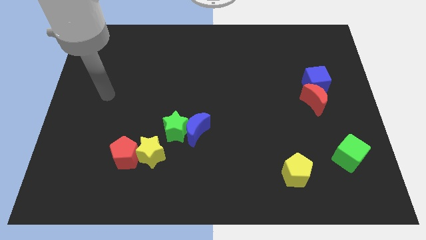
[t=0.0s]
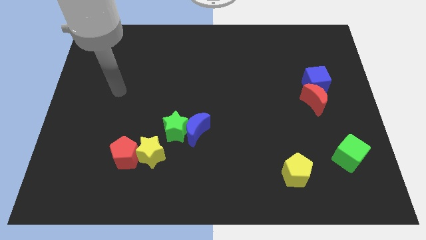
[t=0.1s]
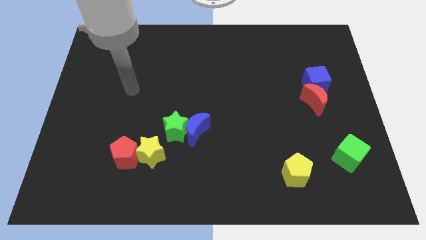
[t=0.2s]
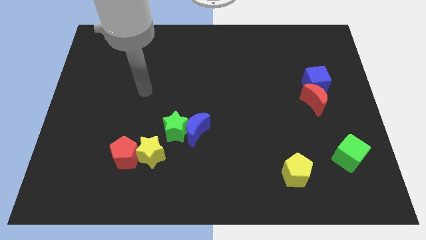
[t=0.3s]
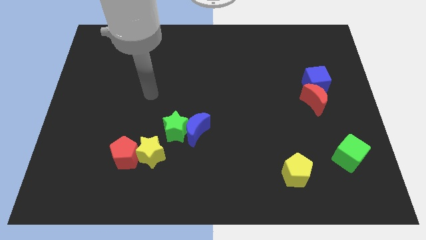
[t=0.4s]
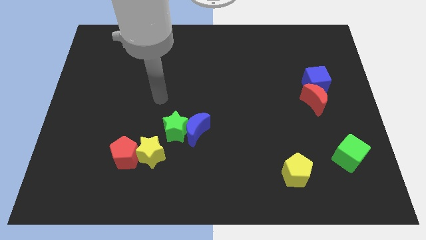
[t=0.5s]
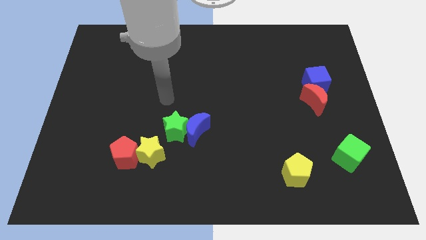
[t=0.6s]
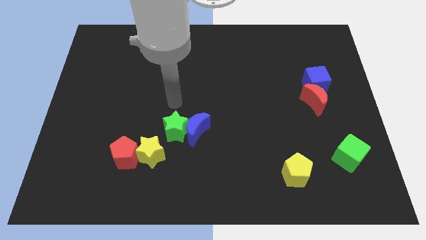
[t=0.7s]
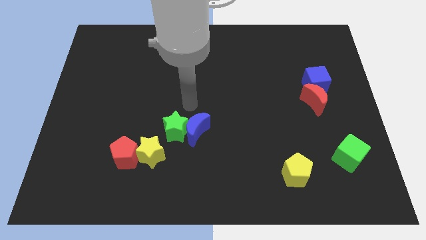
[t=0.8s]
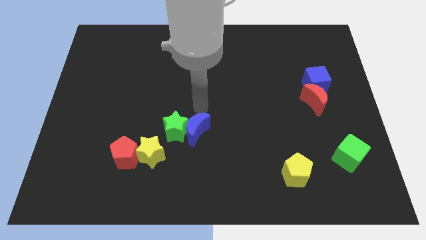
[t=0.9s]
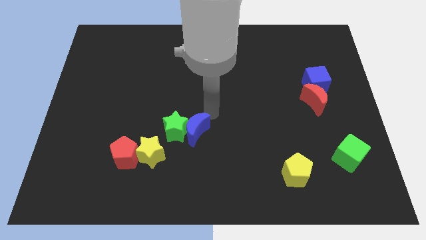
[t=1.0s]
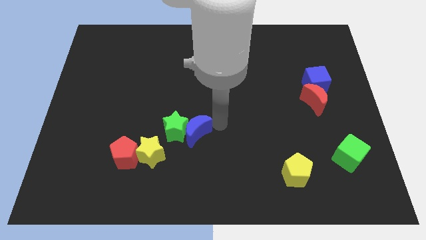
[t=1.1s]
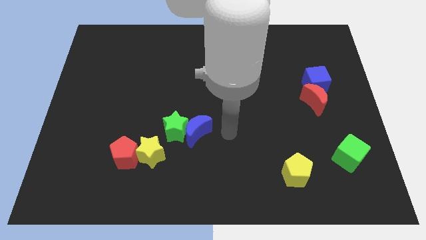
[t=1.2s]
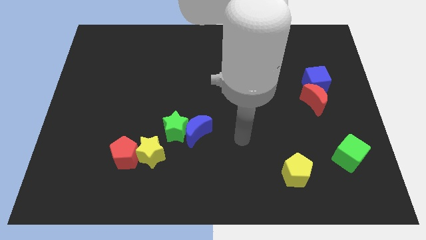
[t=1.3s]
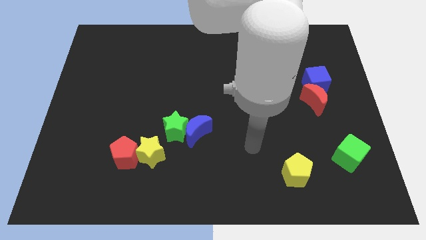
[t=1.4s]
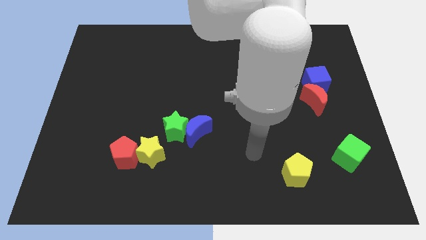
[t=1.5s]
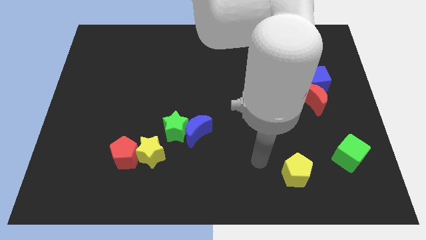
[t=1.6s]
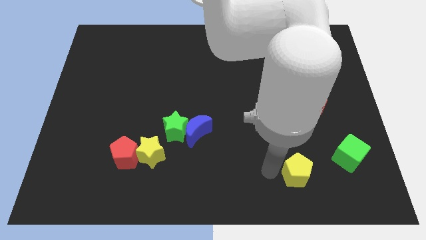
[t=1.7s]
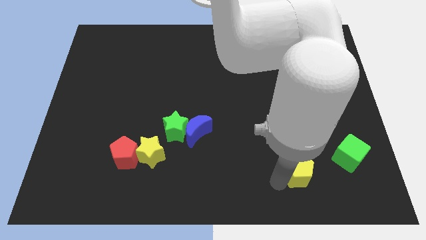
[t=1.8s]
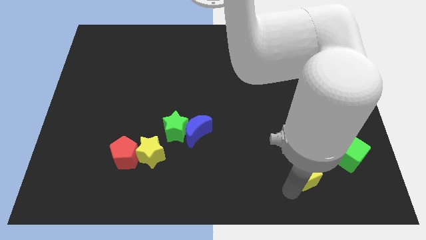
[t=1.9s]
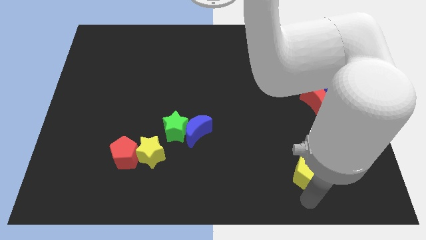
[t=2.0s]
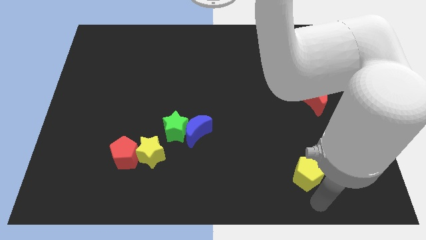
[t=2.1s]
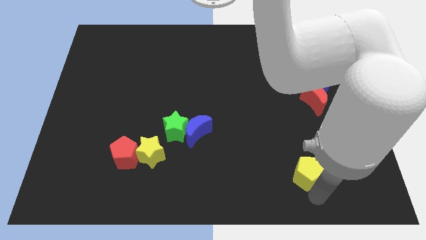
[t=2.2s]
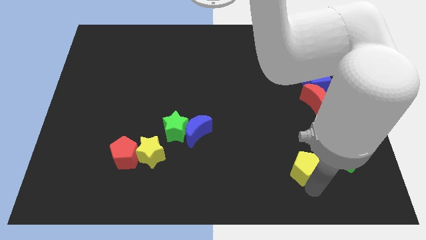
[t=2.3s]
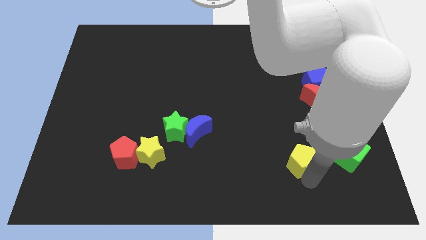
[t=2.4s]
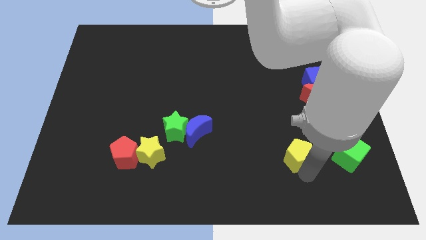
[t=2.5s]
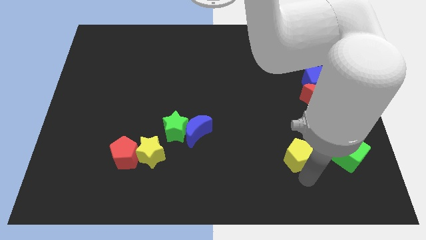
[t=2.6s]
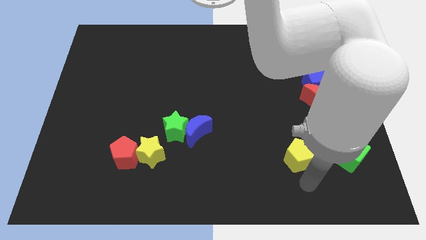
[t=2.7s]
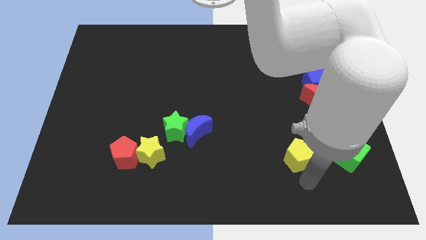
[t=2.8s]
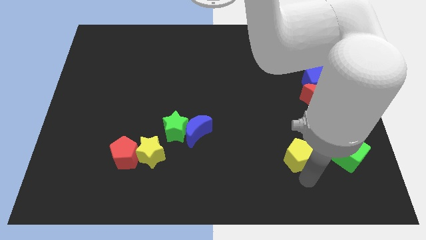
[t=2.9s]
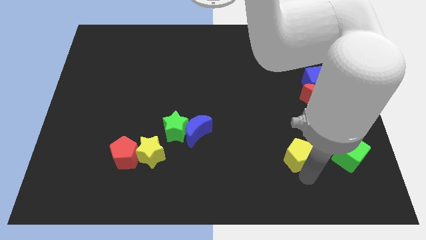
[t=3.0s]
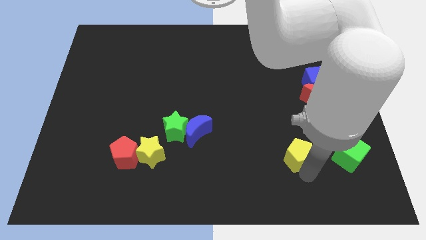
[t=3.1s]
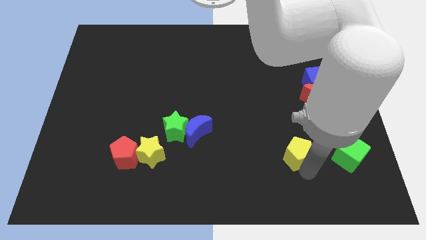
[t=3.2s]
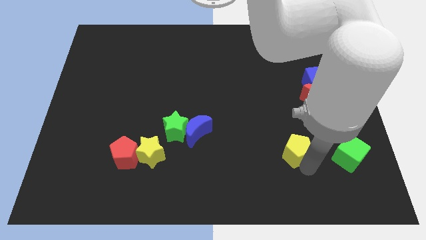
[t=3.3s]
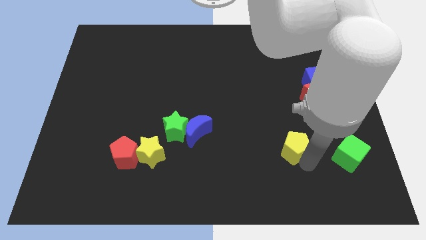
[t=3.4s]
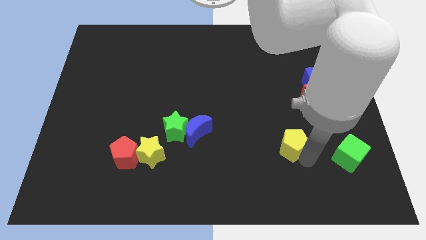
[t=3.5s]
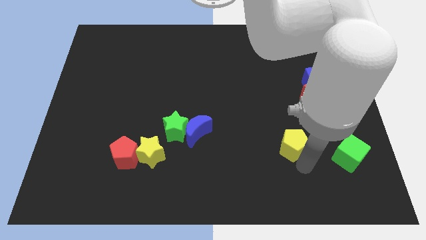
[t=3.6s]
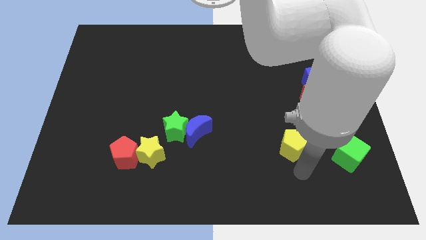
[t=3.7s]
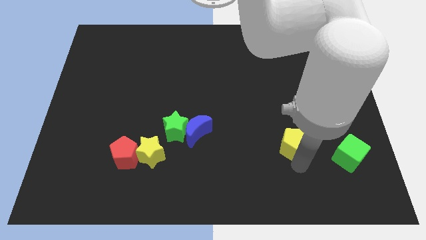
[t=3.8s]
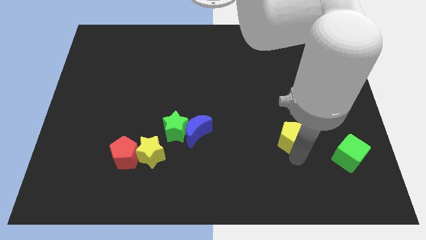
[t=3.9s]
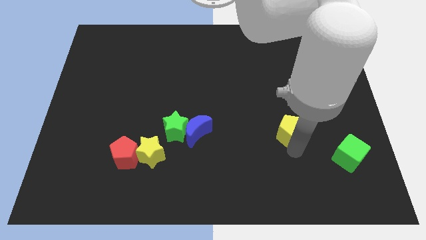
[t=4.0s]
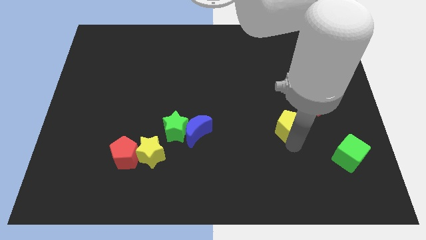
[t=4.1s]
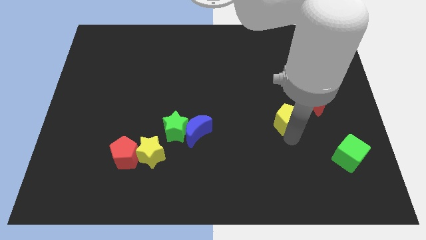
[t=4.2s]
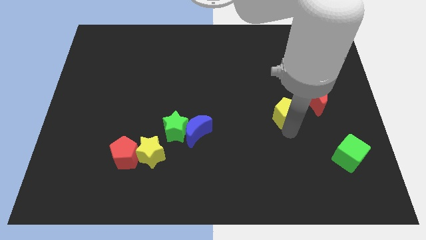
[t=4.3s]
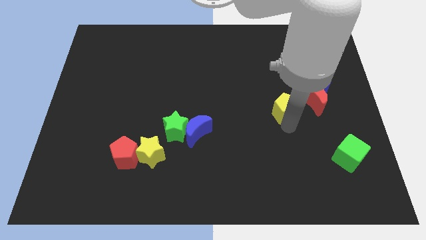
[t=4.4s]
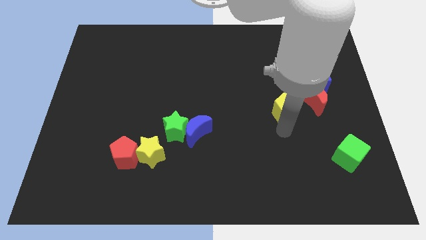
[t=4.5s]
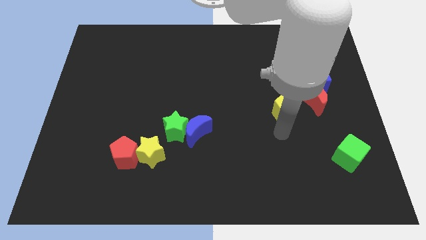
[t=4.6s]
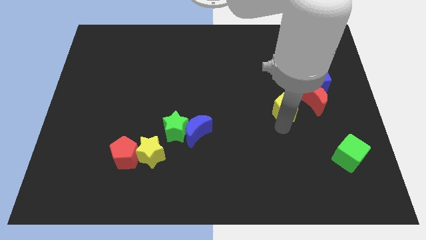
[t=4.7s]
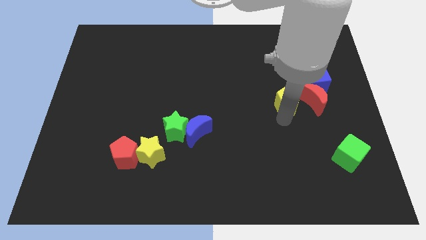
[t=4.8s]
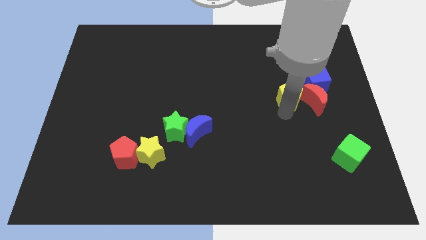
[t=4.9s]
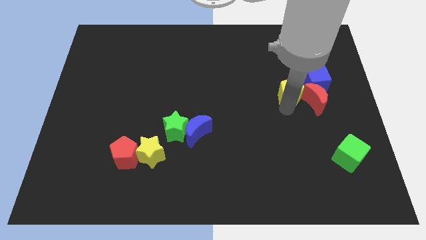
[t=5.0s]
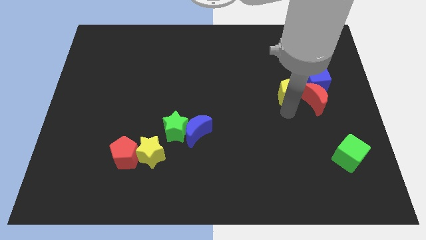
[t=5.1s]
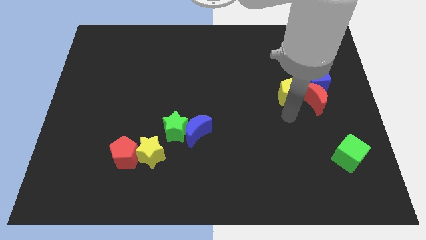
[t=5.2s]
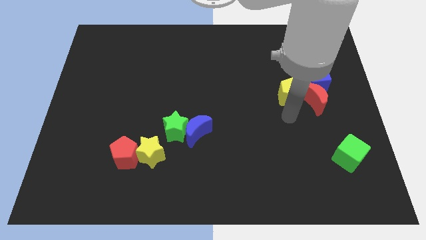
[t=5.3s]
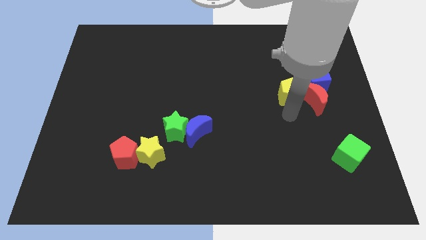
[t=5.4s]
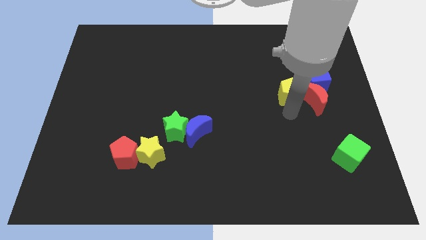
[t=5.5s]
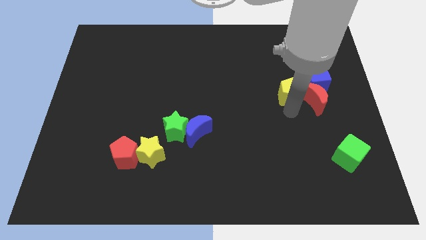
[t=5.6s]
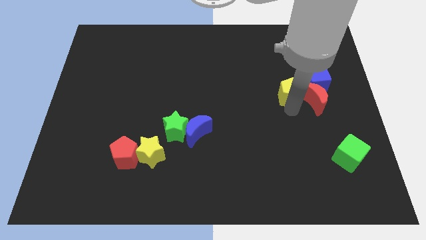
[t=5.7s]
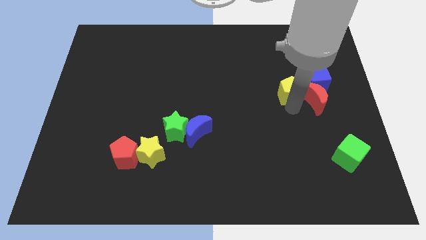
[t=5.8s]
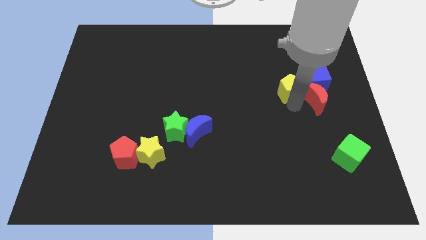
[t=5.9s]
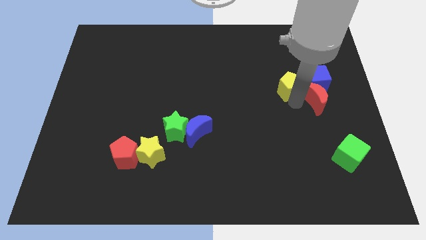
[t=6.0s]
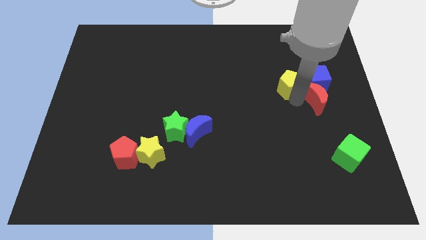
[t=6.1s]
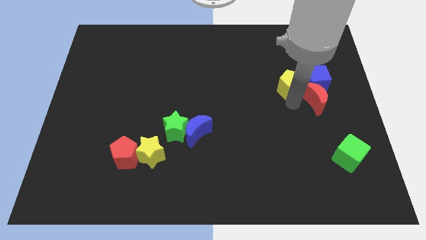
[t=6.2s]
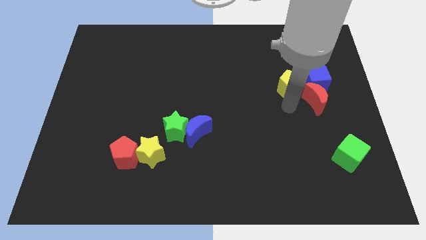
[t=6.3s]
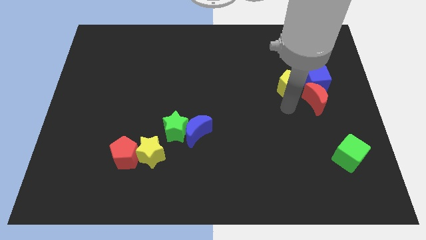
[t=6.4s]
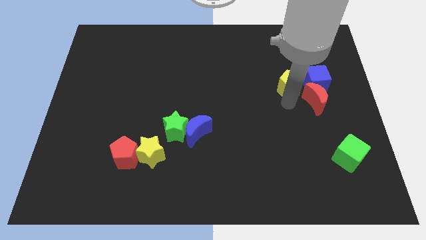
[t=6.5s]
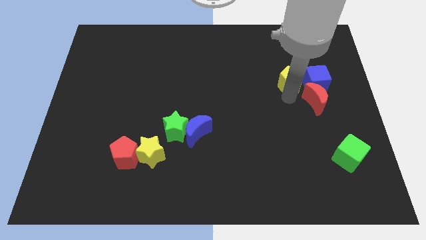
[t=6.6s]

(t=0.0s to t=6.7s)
push the yellow pentagon to the top left side of the blue cube
